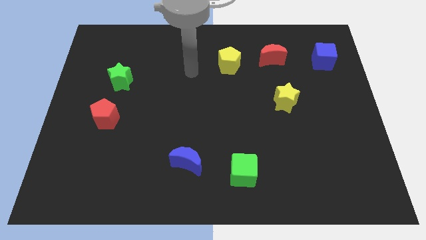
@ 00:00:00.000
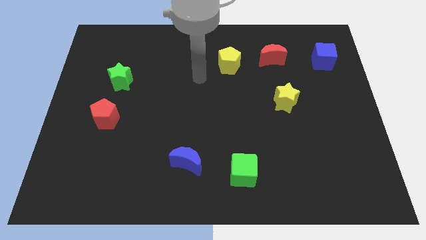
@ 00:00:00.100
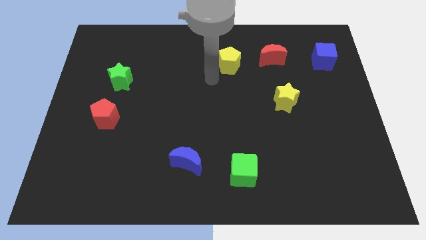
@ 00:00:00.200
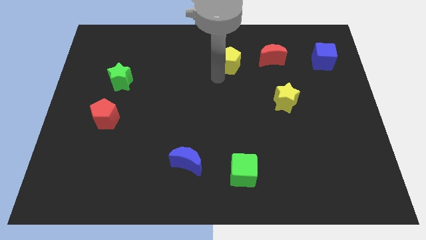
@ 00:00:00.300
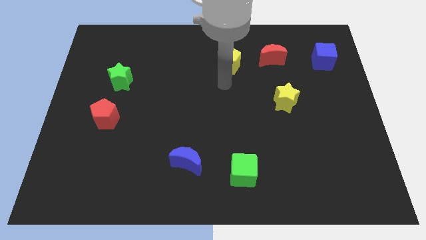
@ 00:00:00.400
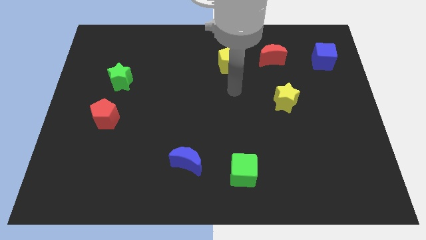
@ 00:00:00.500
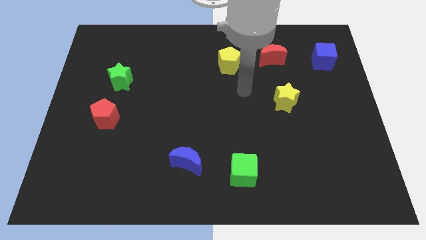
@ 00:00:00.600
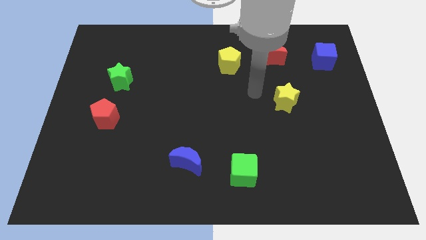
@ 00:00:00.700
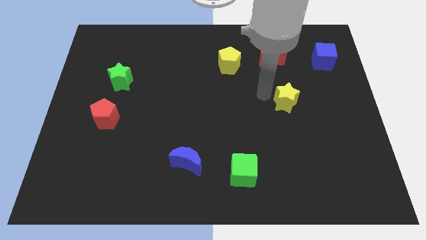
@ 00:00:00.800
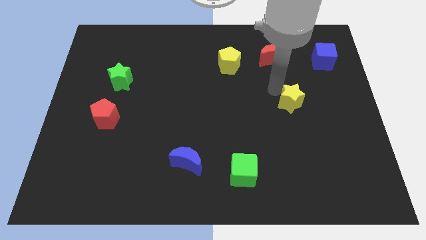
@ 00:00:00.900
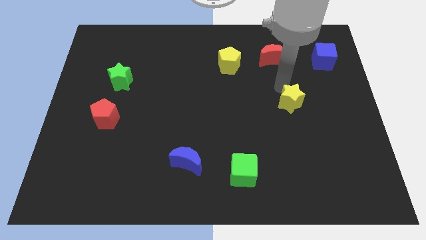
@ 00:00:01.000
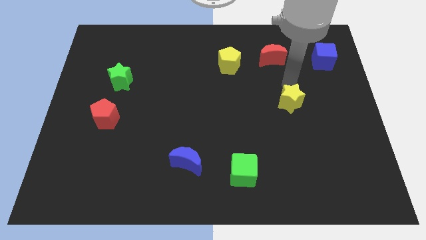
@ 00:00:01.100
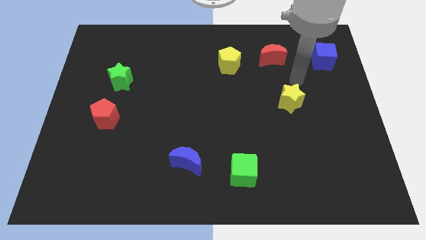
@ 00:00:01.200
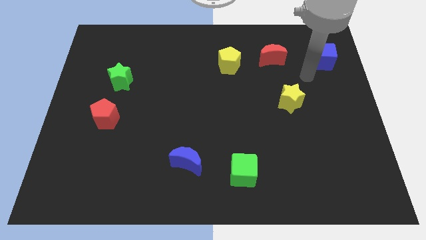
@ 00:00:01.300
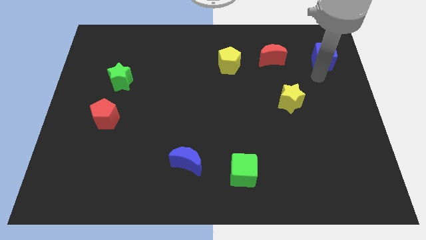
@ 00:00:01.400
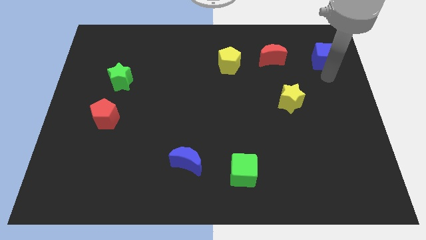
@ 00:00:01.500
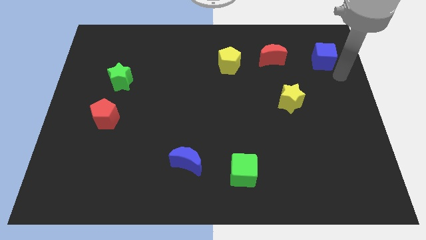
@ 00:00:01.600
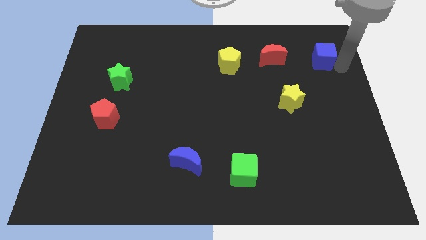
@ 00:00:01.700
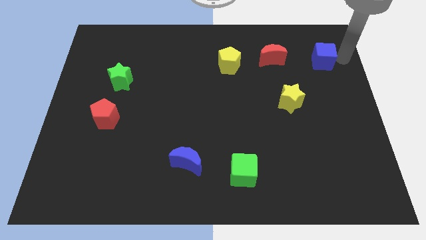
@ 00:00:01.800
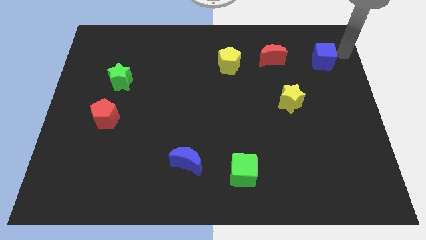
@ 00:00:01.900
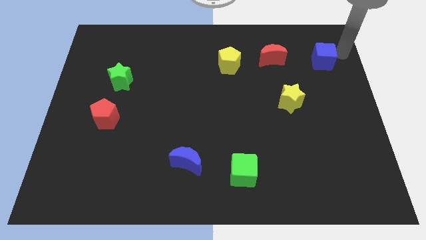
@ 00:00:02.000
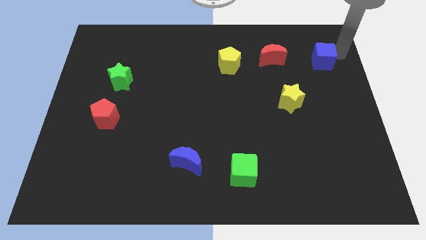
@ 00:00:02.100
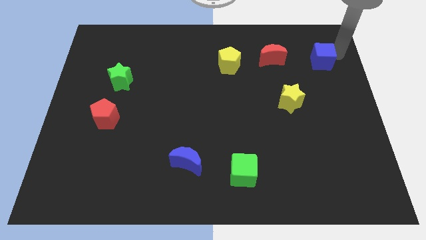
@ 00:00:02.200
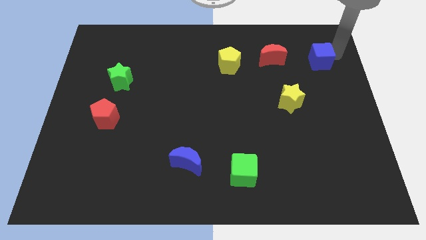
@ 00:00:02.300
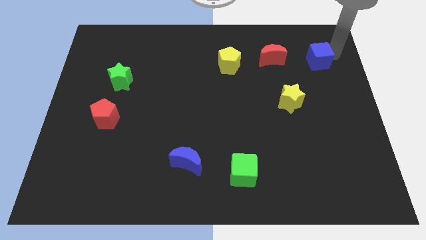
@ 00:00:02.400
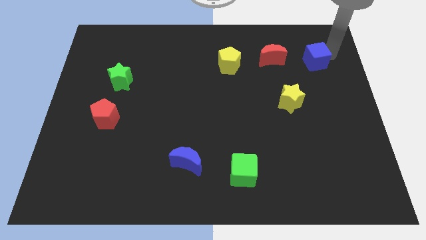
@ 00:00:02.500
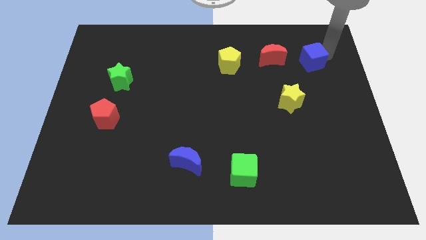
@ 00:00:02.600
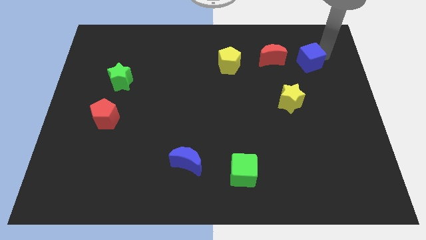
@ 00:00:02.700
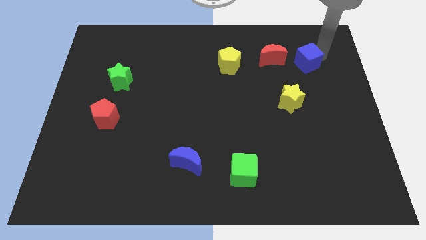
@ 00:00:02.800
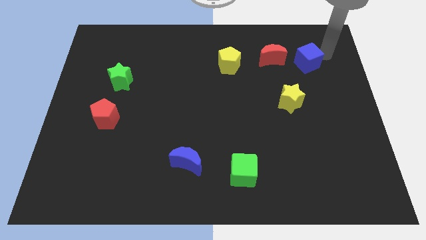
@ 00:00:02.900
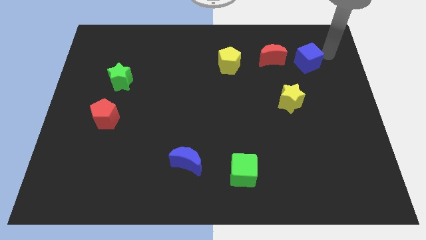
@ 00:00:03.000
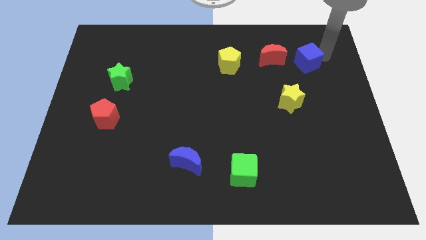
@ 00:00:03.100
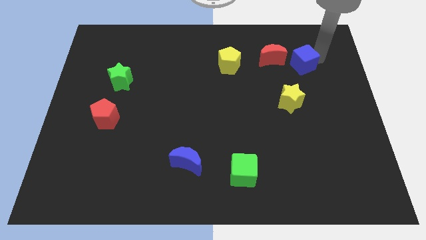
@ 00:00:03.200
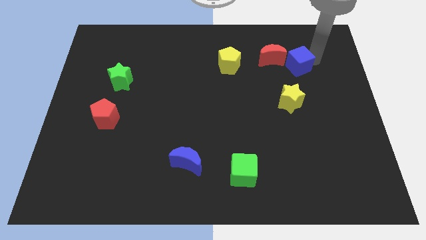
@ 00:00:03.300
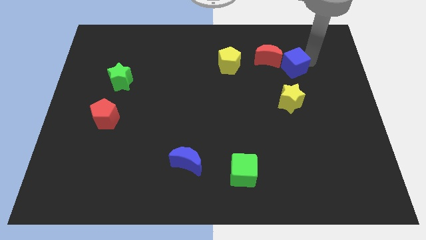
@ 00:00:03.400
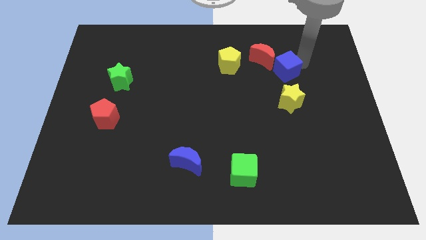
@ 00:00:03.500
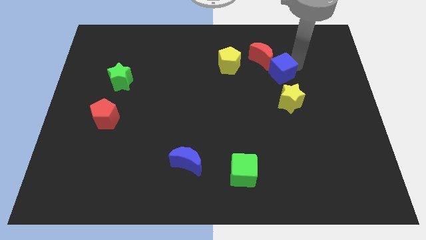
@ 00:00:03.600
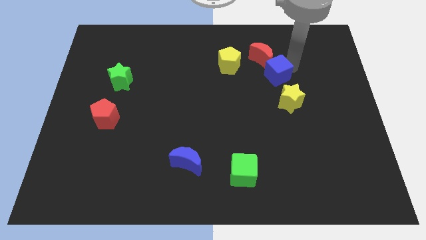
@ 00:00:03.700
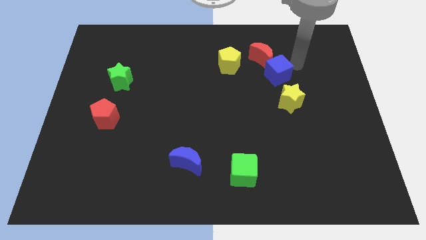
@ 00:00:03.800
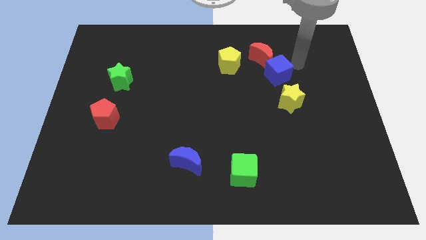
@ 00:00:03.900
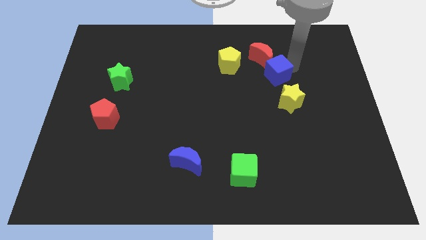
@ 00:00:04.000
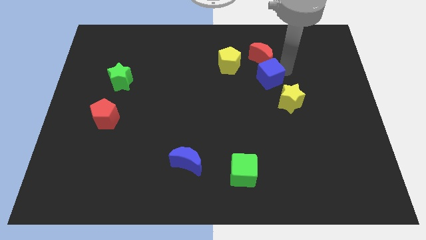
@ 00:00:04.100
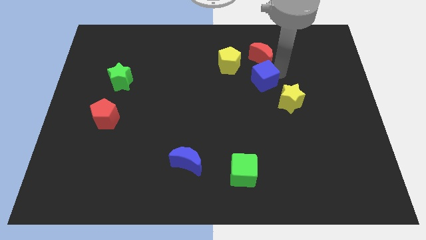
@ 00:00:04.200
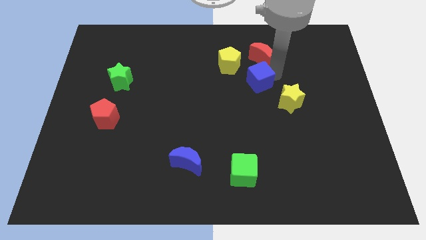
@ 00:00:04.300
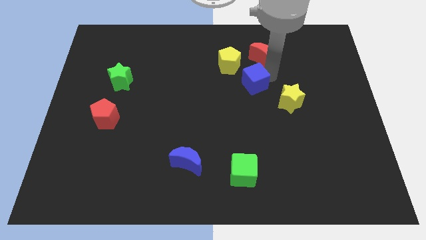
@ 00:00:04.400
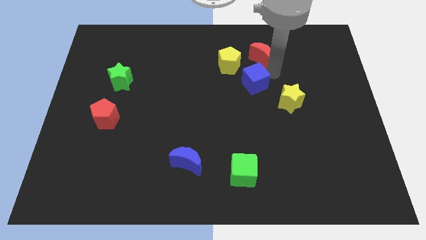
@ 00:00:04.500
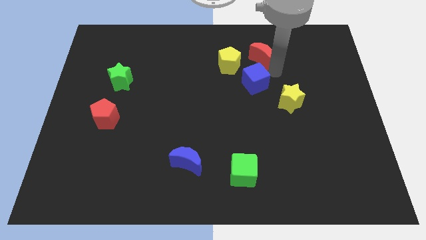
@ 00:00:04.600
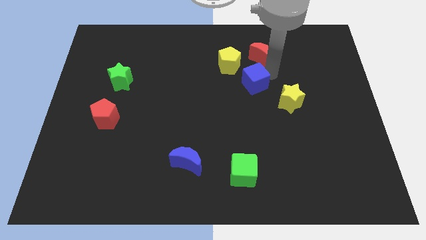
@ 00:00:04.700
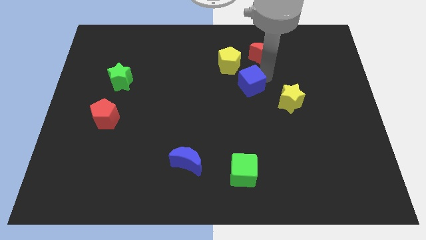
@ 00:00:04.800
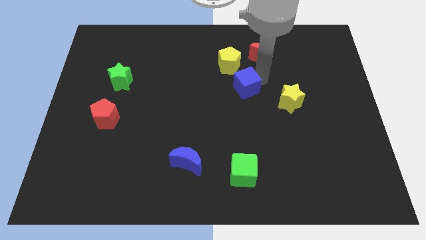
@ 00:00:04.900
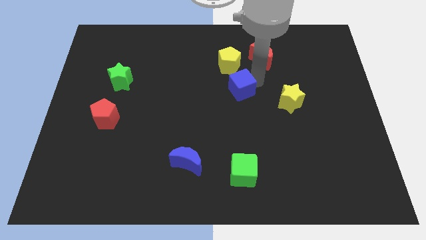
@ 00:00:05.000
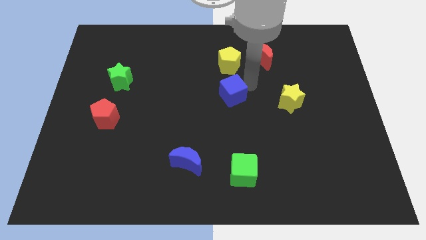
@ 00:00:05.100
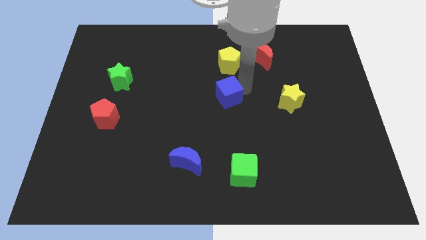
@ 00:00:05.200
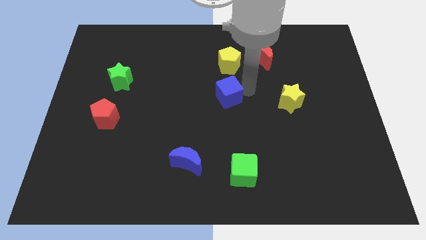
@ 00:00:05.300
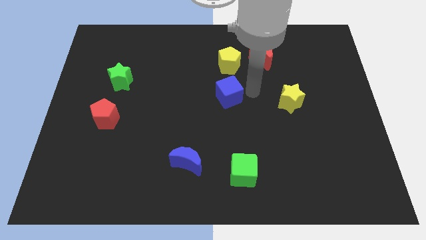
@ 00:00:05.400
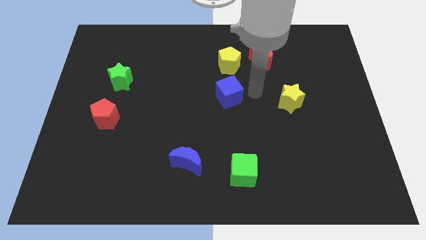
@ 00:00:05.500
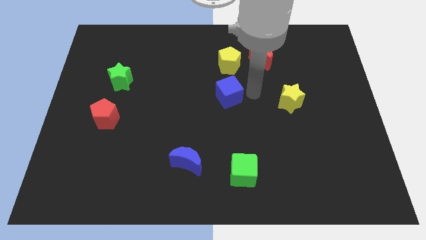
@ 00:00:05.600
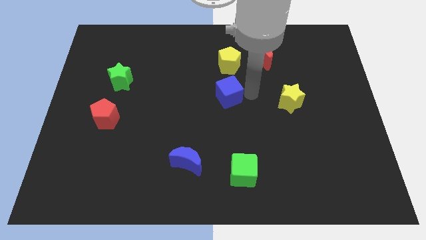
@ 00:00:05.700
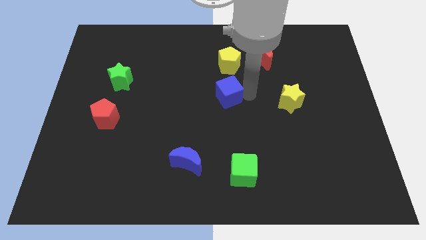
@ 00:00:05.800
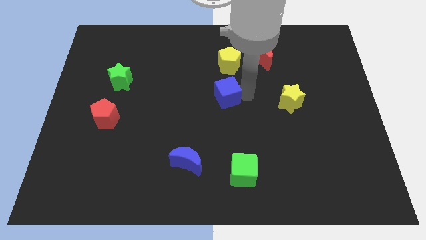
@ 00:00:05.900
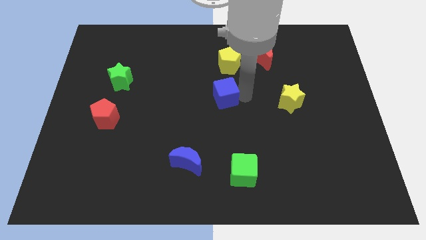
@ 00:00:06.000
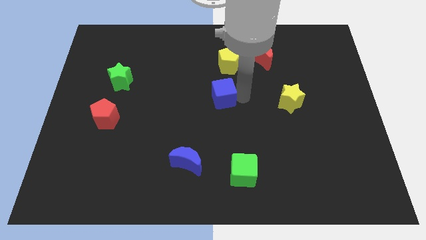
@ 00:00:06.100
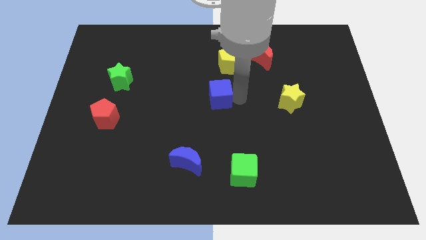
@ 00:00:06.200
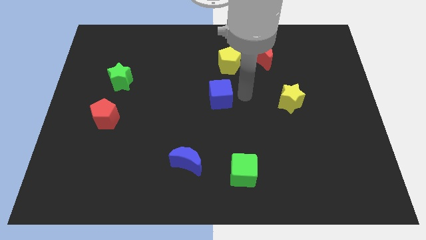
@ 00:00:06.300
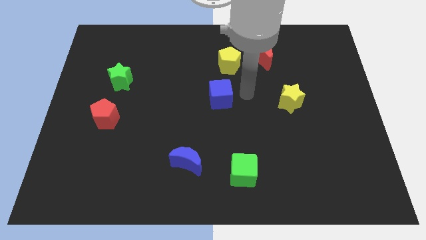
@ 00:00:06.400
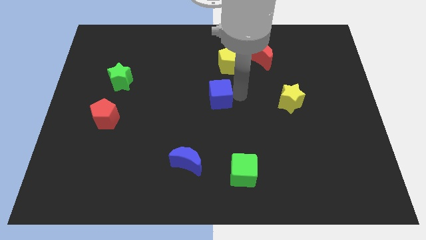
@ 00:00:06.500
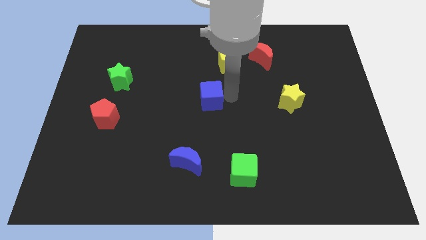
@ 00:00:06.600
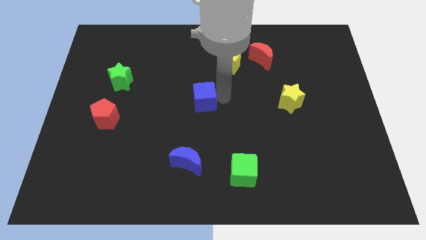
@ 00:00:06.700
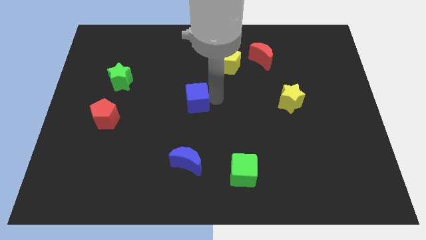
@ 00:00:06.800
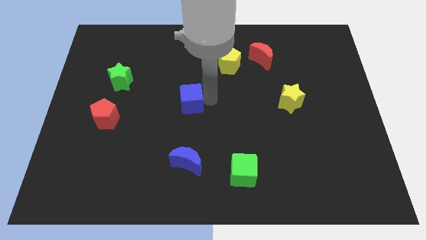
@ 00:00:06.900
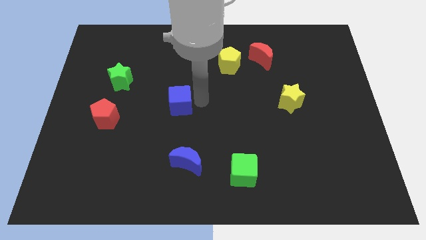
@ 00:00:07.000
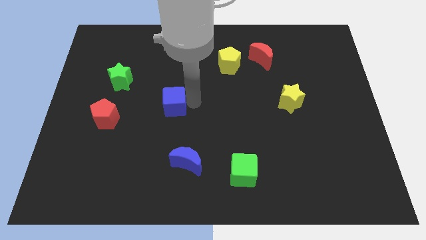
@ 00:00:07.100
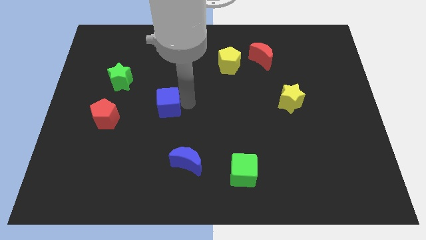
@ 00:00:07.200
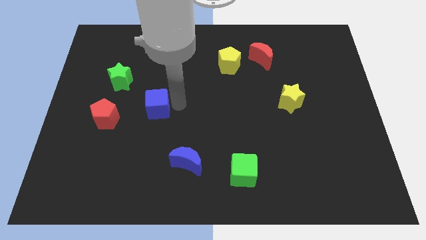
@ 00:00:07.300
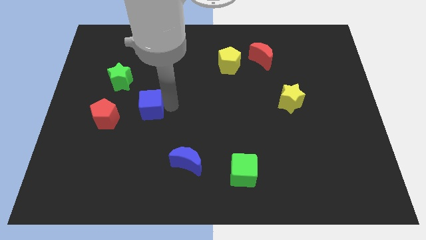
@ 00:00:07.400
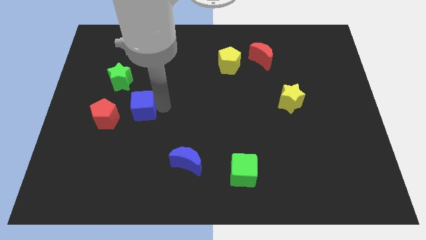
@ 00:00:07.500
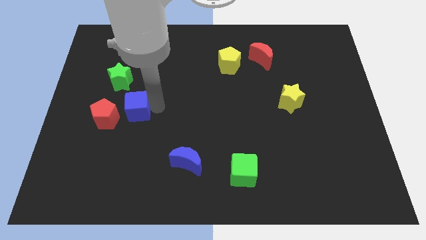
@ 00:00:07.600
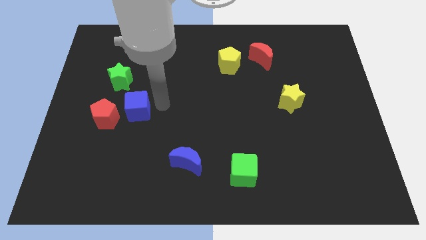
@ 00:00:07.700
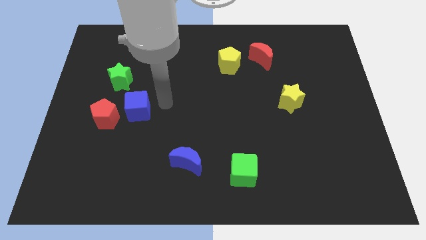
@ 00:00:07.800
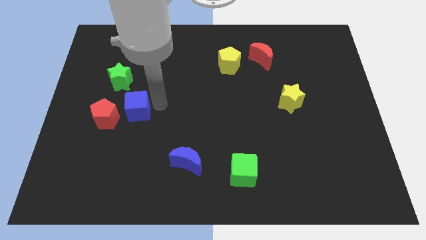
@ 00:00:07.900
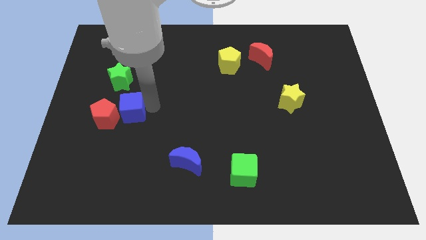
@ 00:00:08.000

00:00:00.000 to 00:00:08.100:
move the blue cube to the red pentagon
